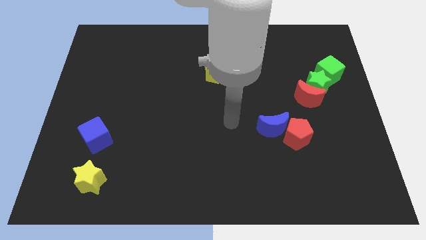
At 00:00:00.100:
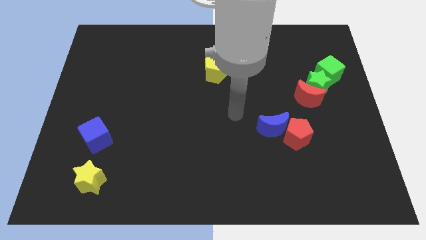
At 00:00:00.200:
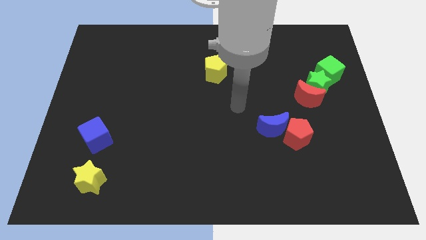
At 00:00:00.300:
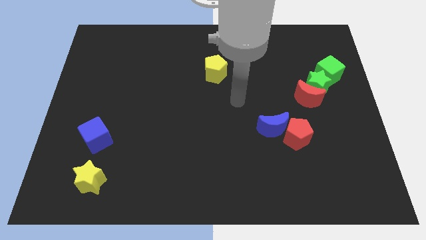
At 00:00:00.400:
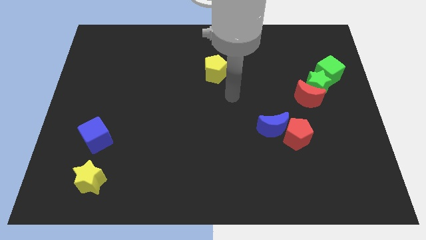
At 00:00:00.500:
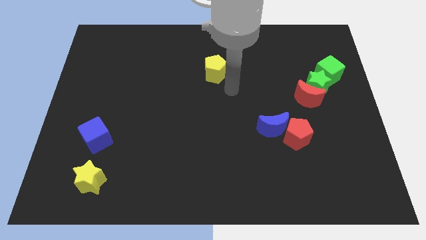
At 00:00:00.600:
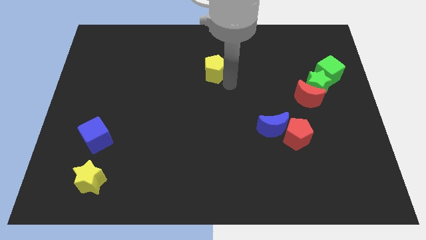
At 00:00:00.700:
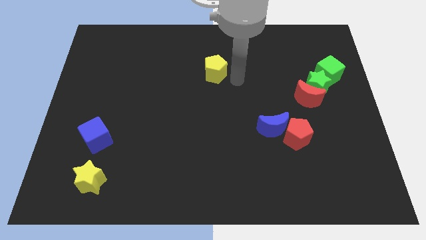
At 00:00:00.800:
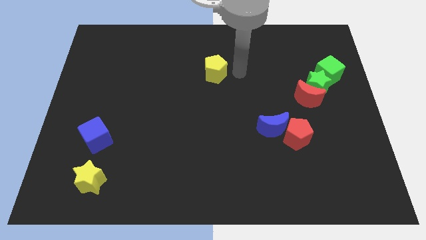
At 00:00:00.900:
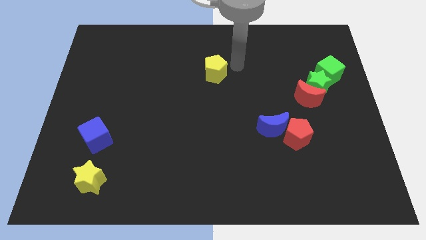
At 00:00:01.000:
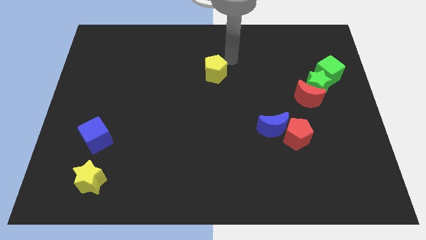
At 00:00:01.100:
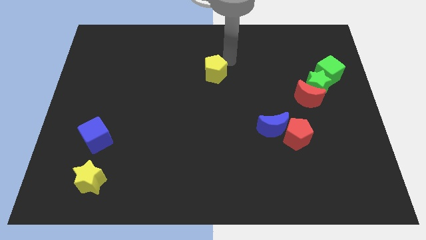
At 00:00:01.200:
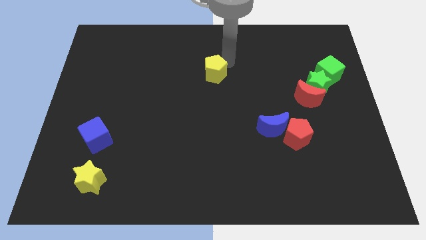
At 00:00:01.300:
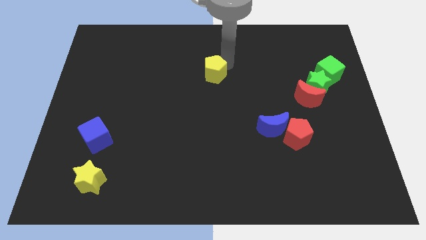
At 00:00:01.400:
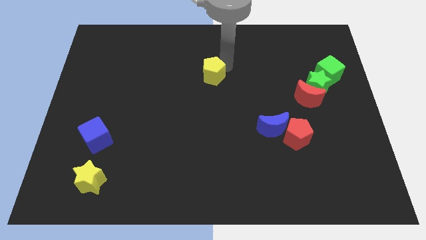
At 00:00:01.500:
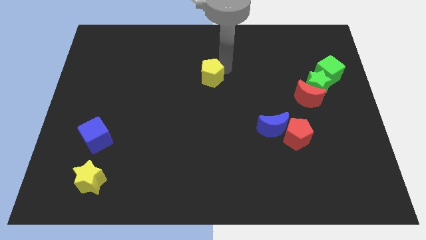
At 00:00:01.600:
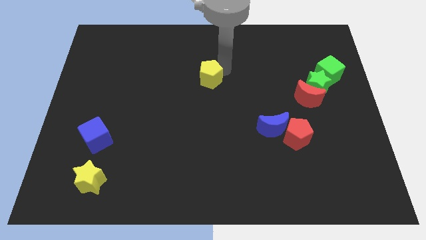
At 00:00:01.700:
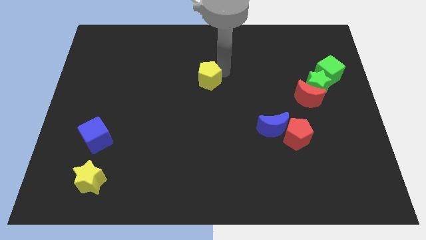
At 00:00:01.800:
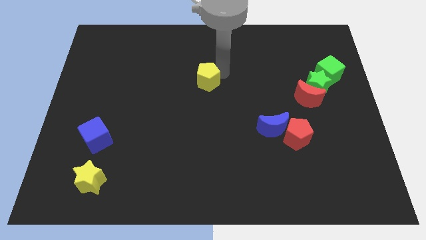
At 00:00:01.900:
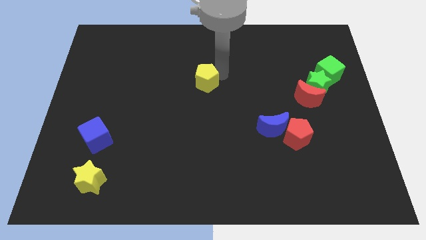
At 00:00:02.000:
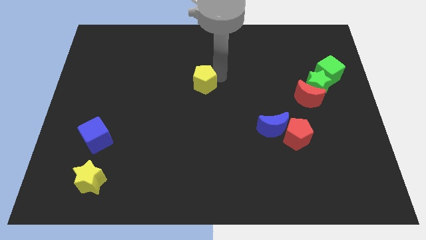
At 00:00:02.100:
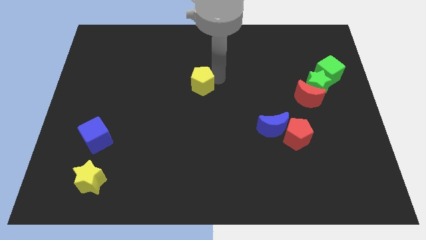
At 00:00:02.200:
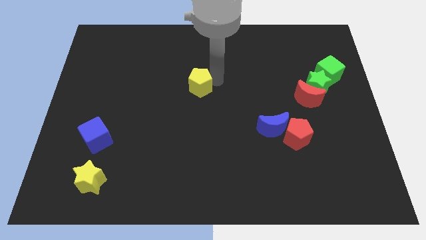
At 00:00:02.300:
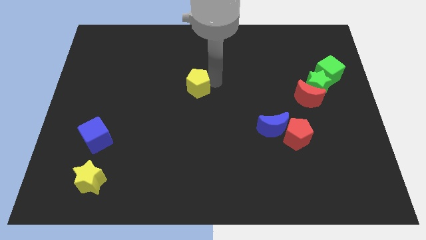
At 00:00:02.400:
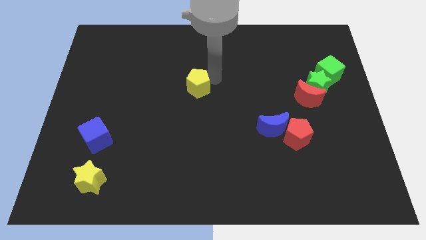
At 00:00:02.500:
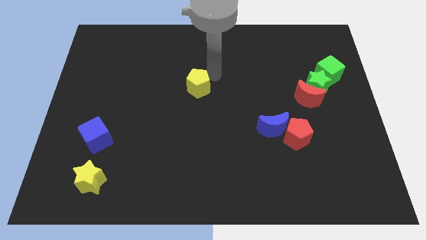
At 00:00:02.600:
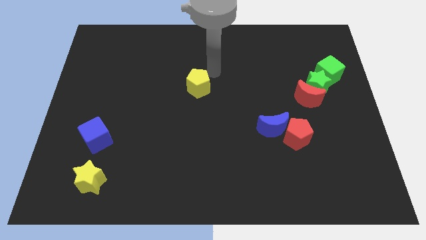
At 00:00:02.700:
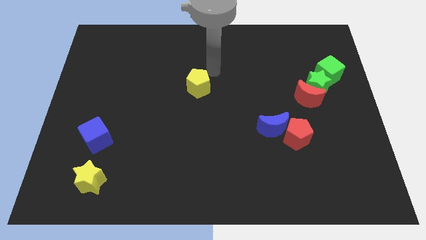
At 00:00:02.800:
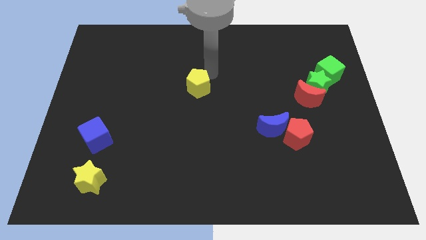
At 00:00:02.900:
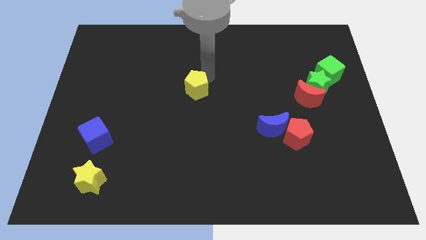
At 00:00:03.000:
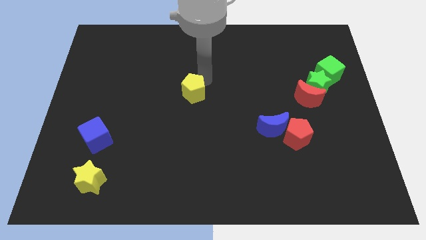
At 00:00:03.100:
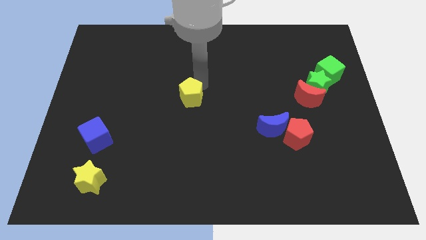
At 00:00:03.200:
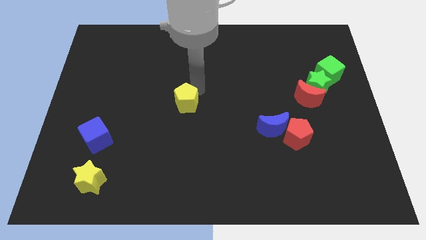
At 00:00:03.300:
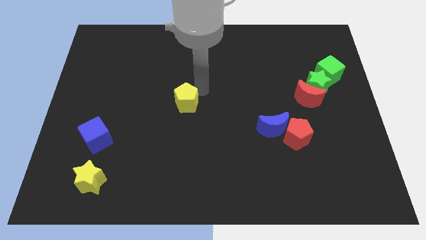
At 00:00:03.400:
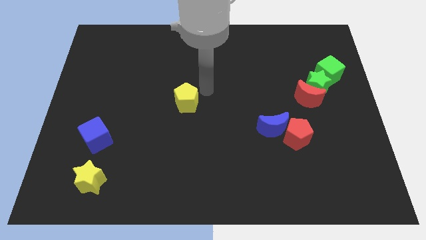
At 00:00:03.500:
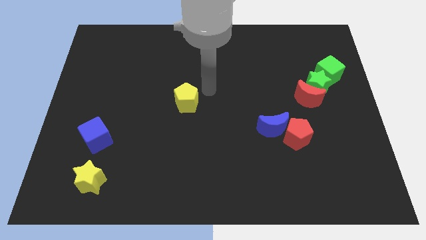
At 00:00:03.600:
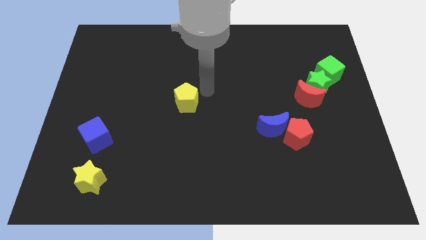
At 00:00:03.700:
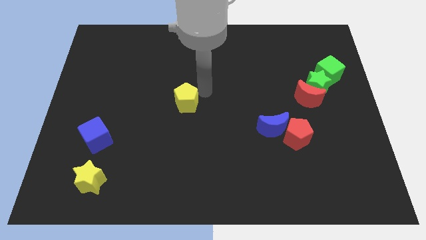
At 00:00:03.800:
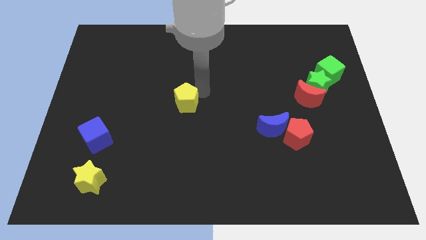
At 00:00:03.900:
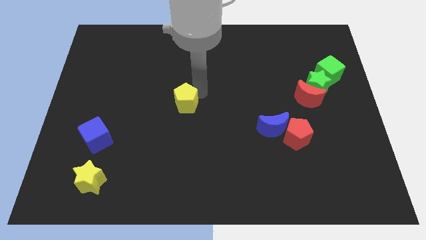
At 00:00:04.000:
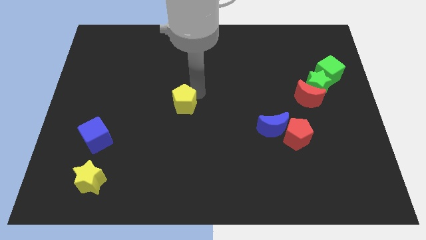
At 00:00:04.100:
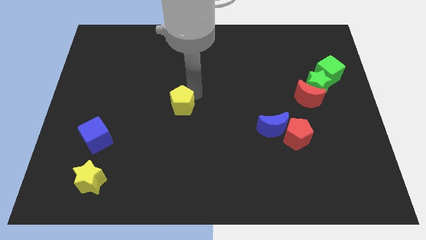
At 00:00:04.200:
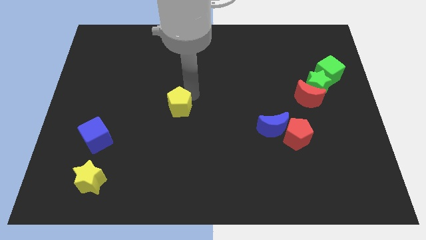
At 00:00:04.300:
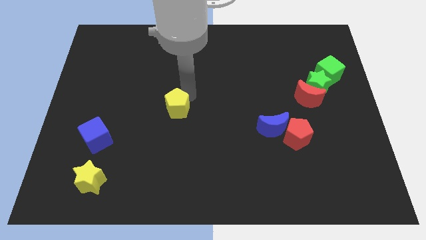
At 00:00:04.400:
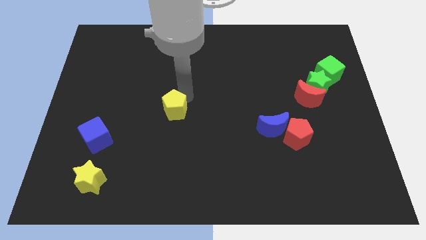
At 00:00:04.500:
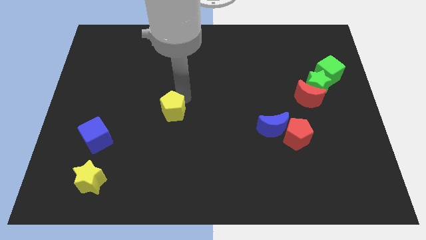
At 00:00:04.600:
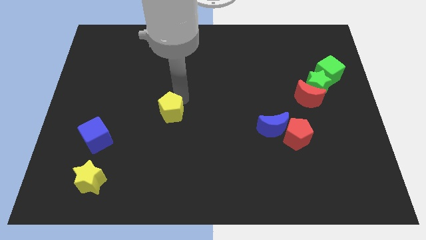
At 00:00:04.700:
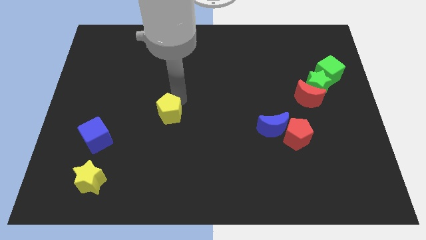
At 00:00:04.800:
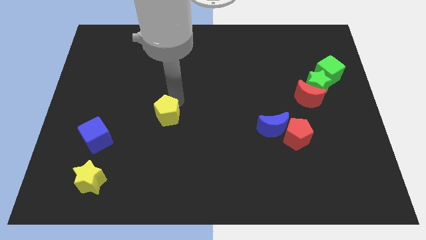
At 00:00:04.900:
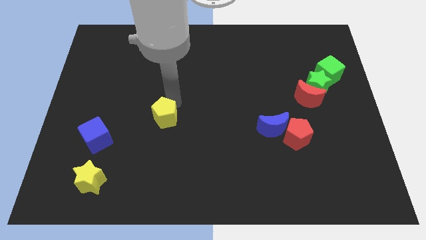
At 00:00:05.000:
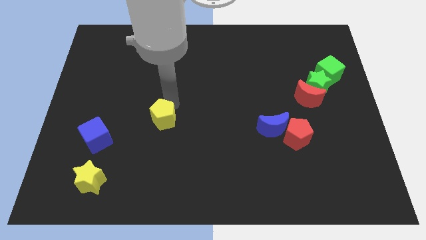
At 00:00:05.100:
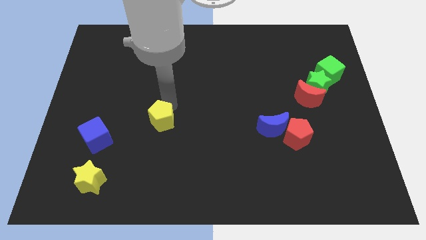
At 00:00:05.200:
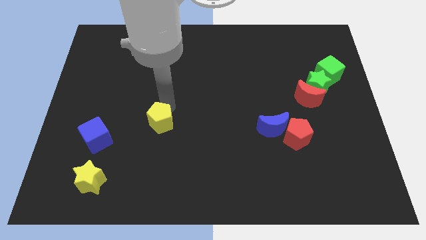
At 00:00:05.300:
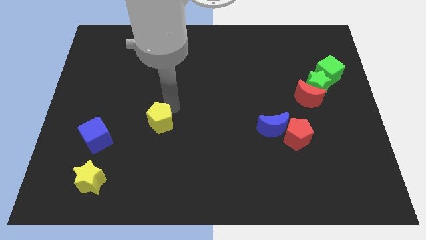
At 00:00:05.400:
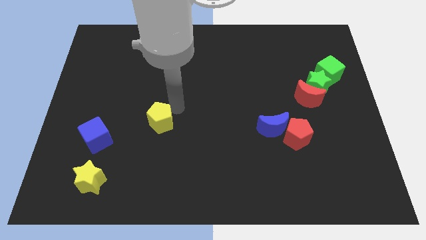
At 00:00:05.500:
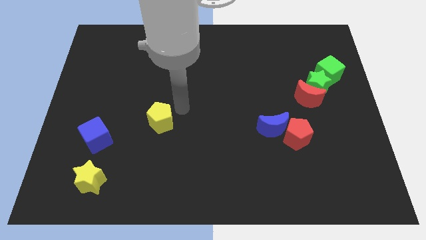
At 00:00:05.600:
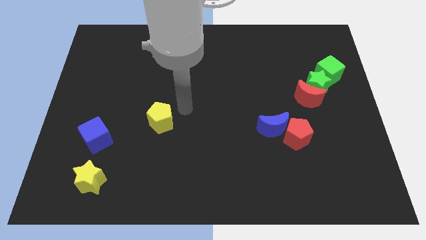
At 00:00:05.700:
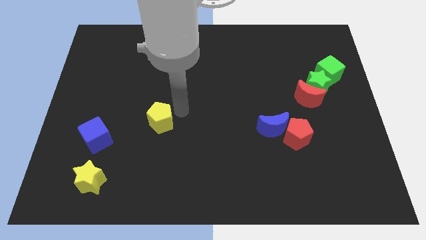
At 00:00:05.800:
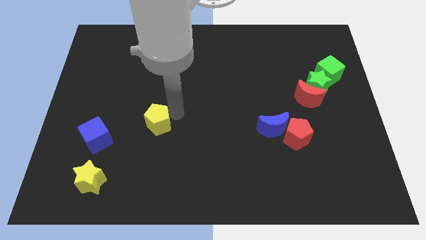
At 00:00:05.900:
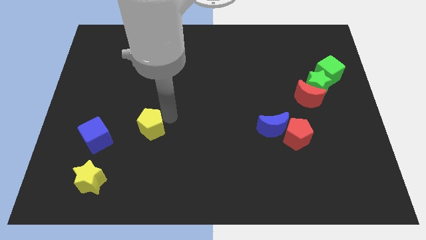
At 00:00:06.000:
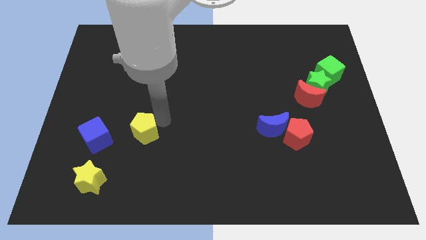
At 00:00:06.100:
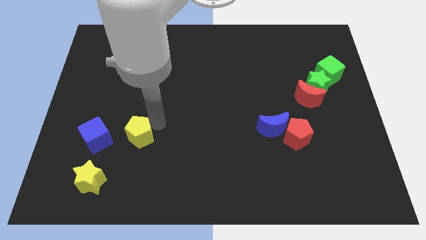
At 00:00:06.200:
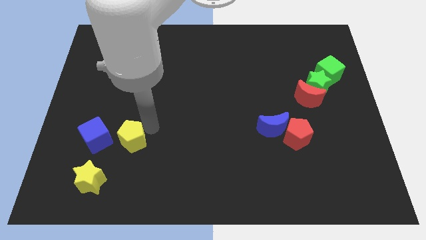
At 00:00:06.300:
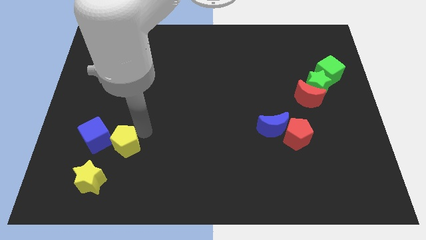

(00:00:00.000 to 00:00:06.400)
push the yellow pentagon to the bottom right of the blue cube

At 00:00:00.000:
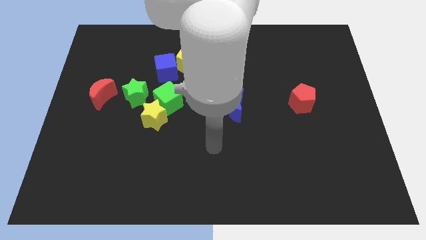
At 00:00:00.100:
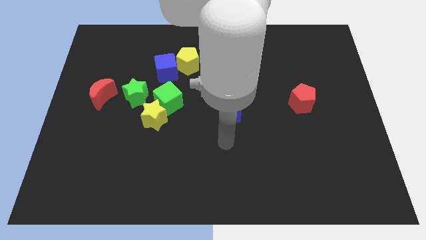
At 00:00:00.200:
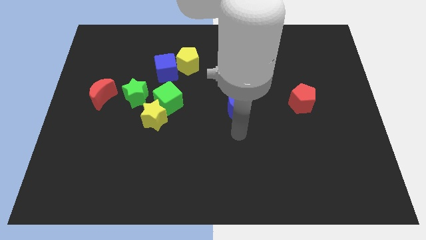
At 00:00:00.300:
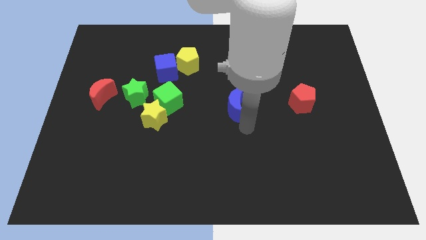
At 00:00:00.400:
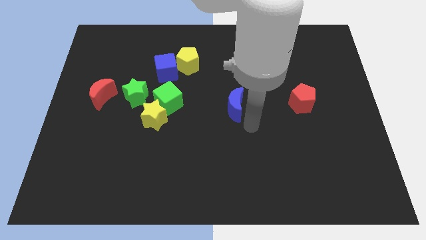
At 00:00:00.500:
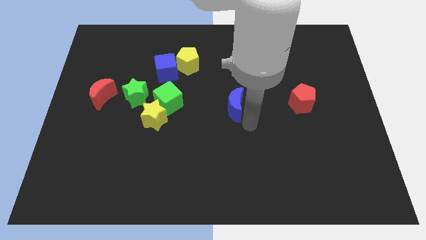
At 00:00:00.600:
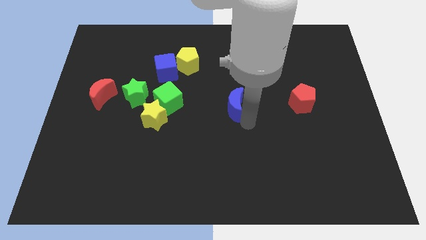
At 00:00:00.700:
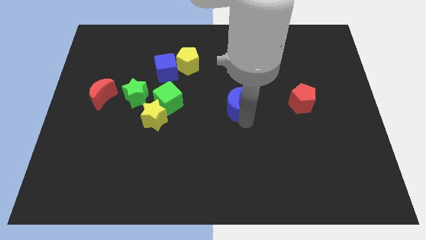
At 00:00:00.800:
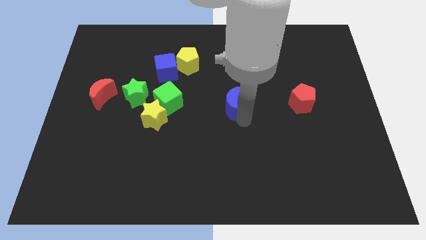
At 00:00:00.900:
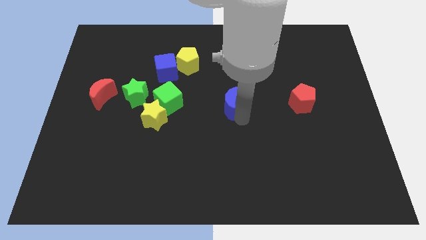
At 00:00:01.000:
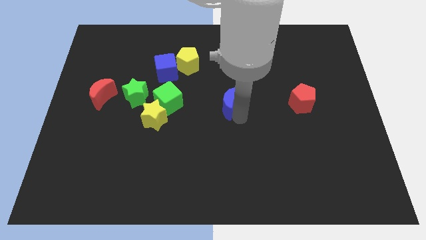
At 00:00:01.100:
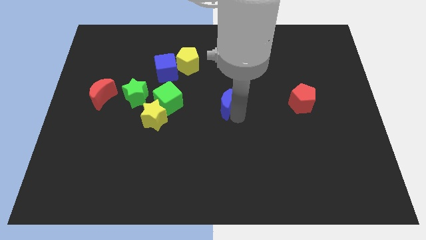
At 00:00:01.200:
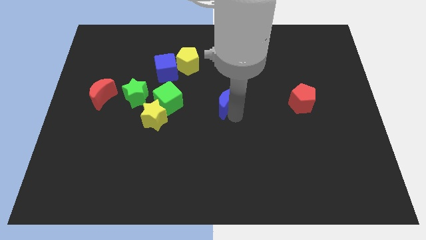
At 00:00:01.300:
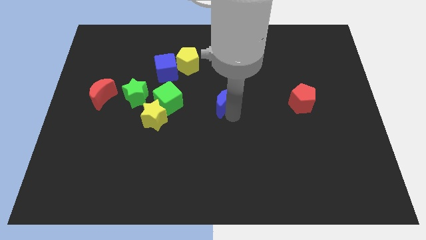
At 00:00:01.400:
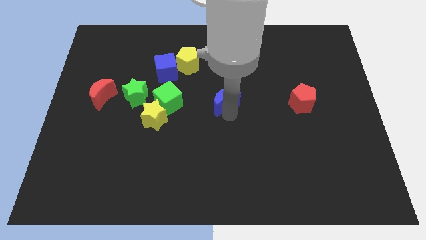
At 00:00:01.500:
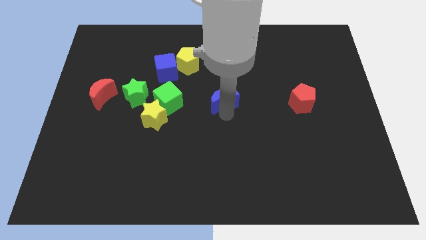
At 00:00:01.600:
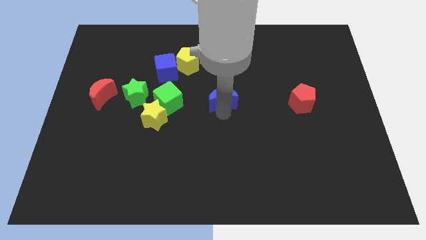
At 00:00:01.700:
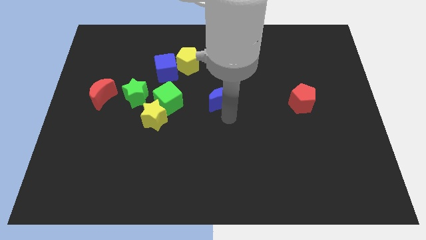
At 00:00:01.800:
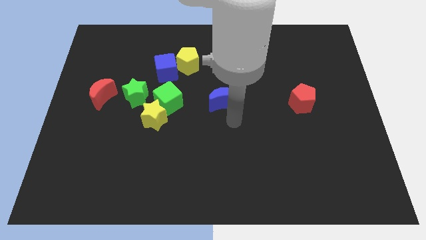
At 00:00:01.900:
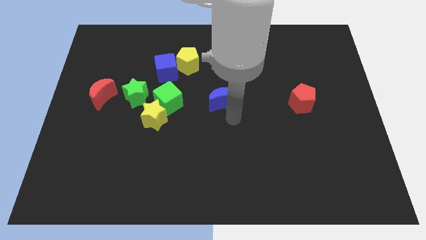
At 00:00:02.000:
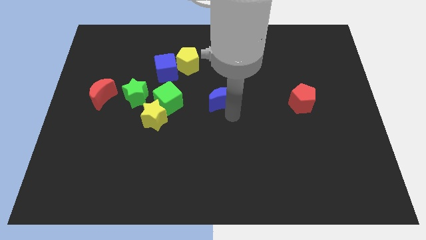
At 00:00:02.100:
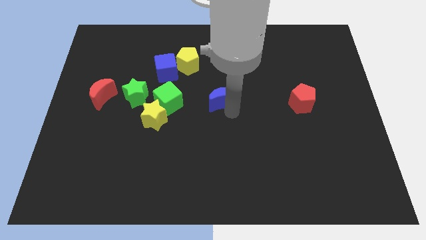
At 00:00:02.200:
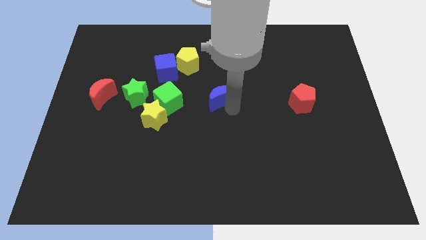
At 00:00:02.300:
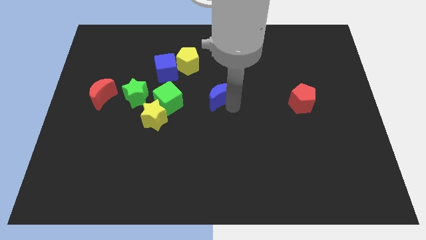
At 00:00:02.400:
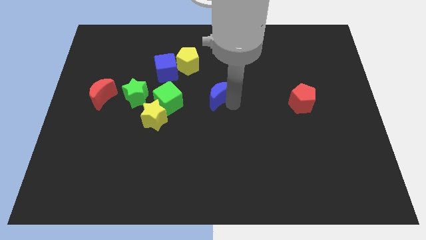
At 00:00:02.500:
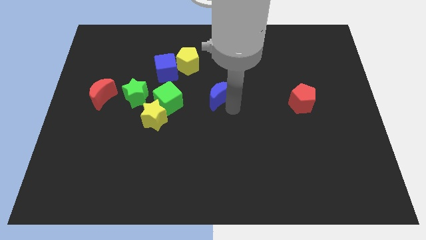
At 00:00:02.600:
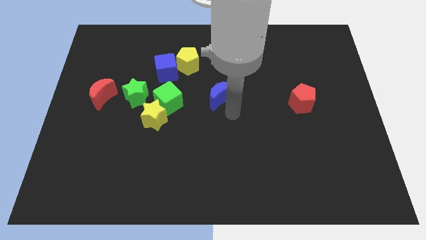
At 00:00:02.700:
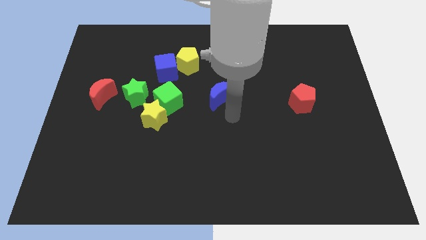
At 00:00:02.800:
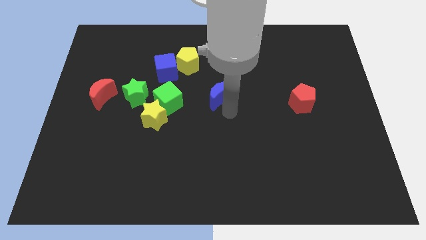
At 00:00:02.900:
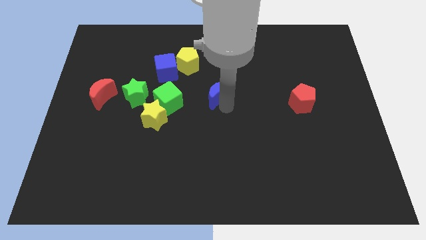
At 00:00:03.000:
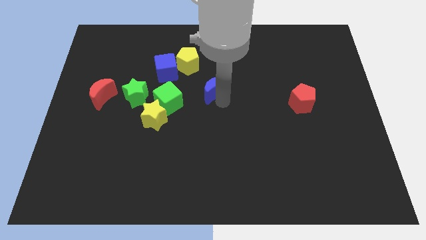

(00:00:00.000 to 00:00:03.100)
slide the blue moon to the bottom right side of the yellow pentagon
